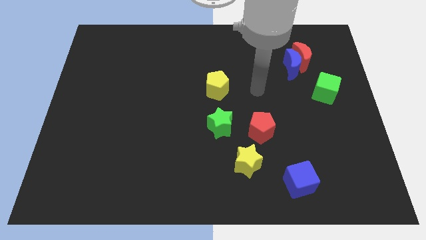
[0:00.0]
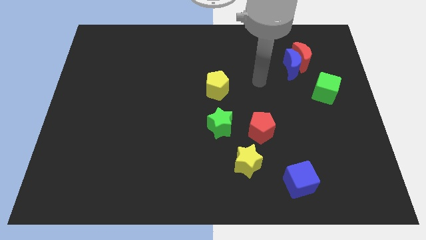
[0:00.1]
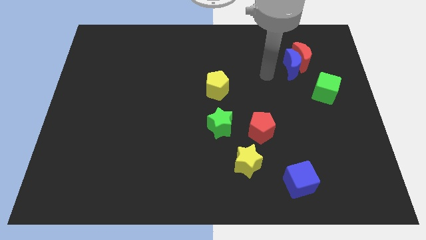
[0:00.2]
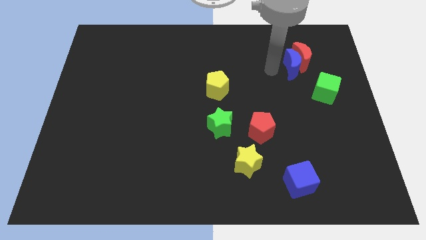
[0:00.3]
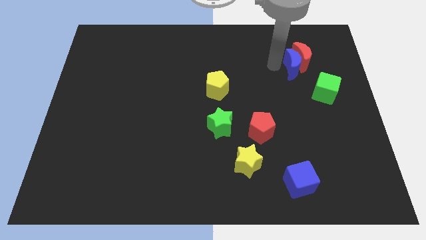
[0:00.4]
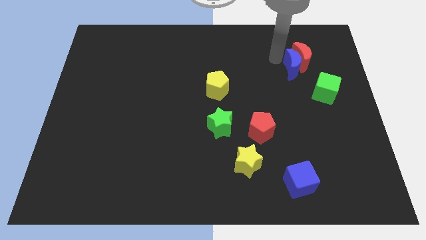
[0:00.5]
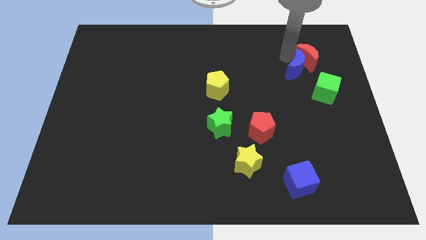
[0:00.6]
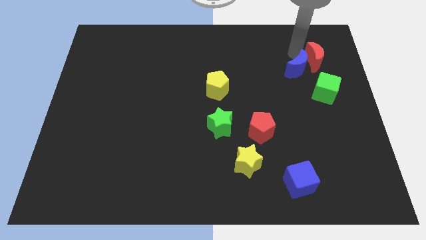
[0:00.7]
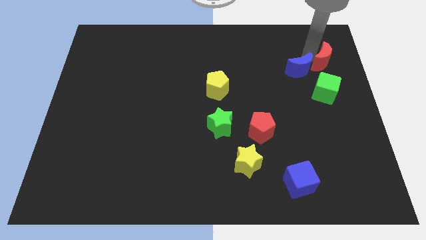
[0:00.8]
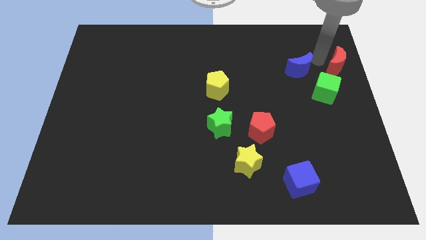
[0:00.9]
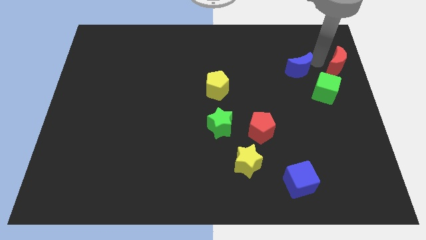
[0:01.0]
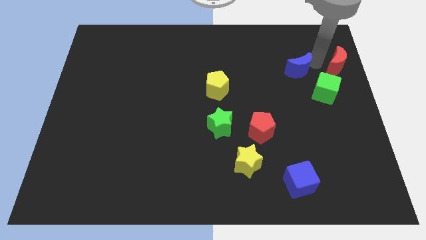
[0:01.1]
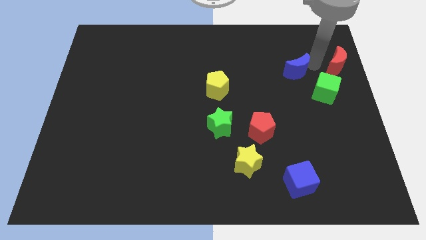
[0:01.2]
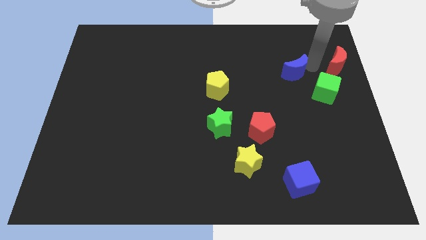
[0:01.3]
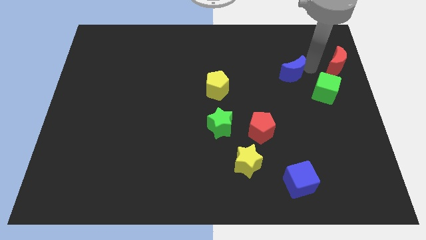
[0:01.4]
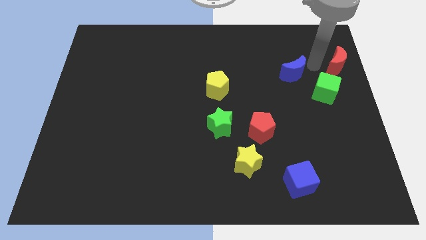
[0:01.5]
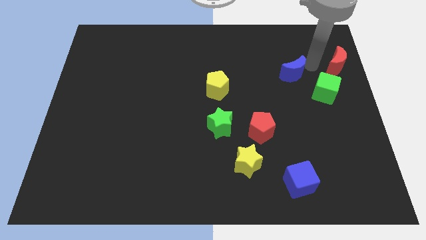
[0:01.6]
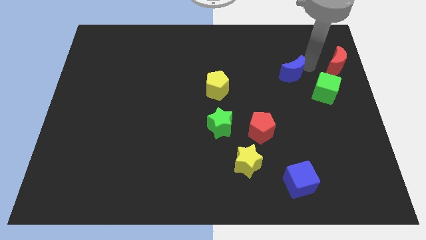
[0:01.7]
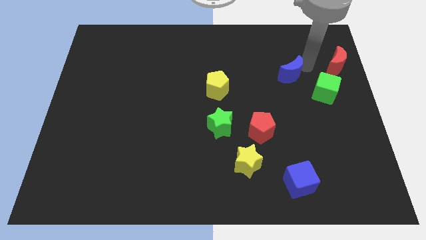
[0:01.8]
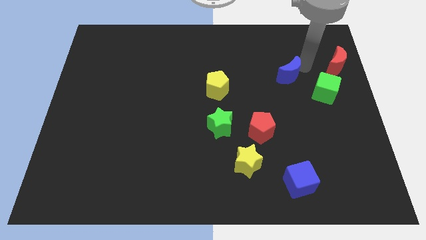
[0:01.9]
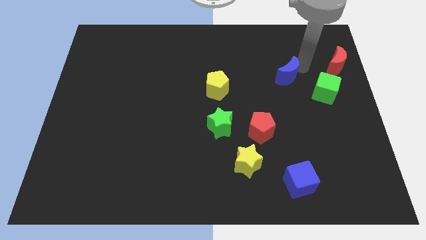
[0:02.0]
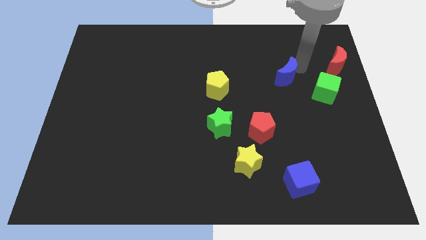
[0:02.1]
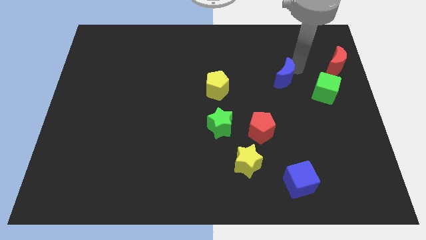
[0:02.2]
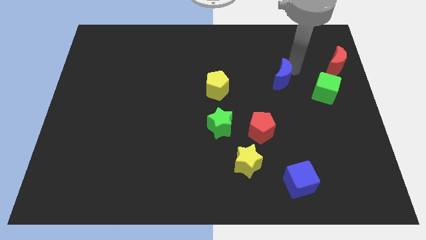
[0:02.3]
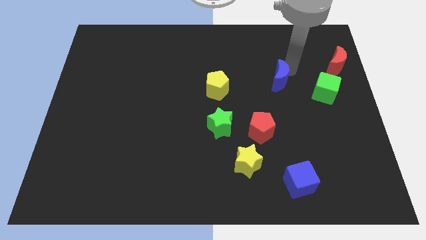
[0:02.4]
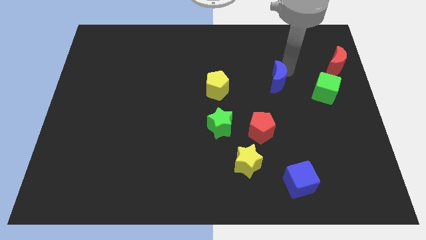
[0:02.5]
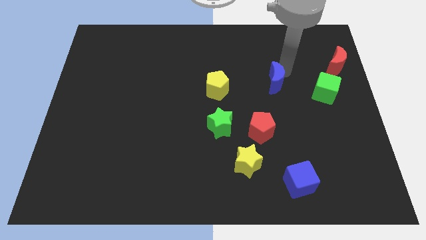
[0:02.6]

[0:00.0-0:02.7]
push the blue moon a little down and then left

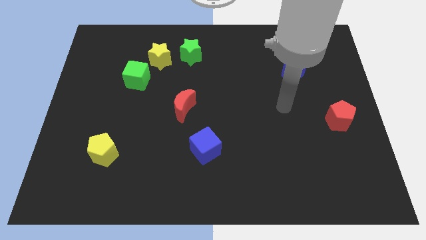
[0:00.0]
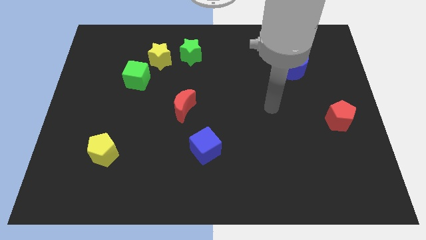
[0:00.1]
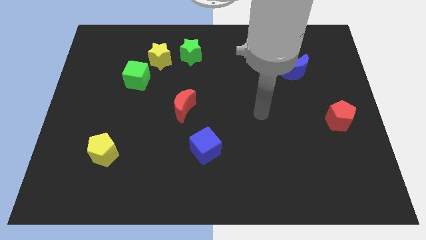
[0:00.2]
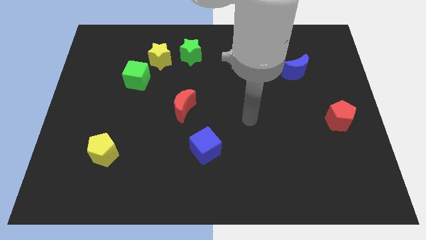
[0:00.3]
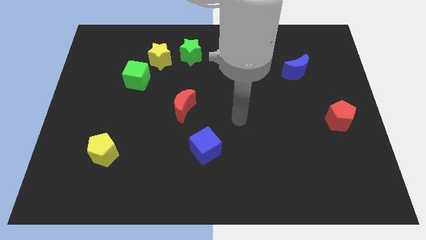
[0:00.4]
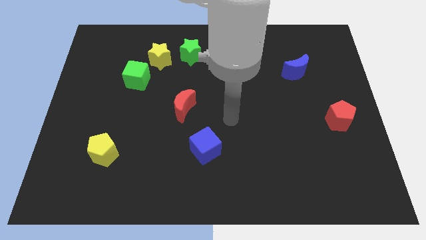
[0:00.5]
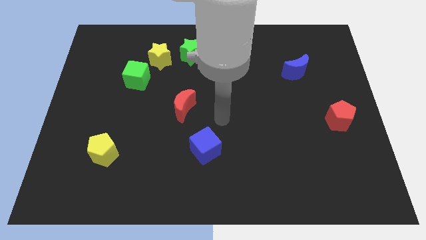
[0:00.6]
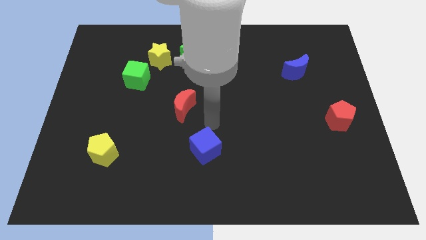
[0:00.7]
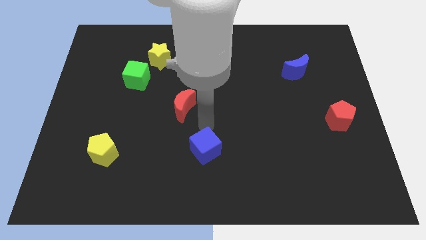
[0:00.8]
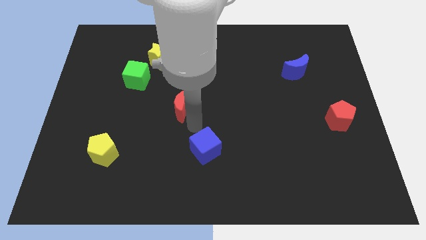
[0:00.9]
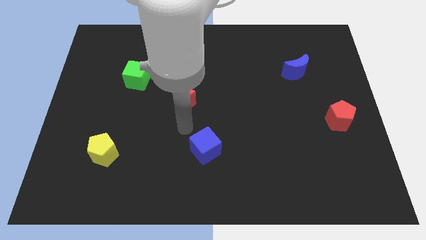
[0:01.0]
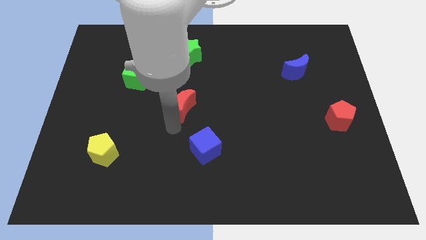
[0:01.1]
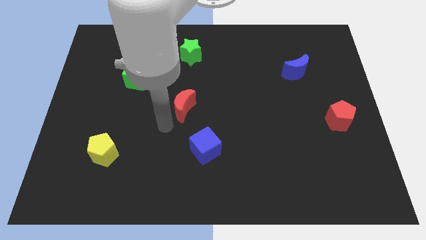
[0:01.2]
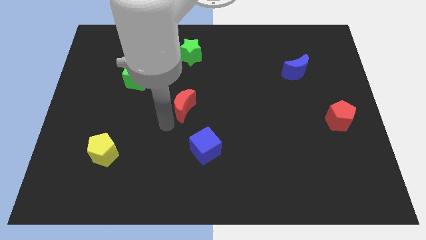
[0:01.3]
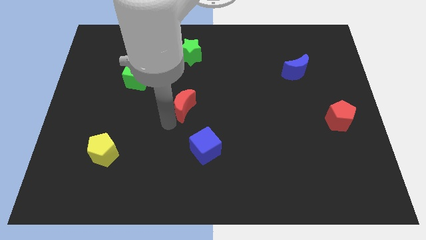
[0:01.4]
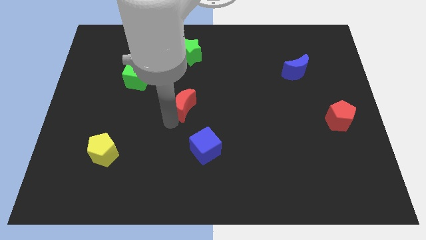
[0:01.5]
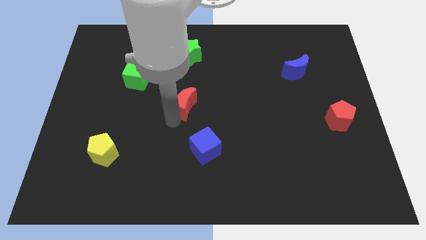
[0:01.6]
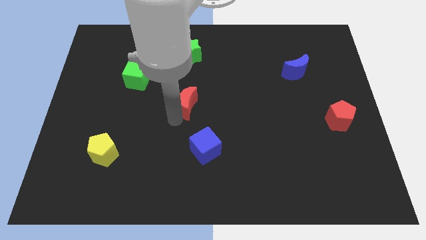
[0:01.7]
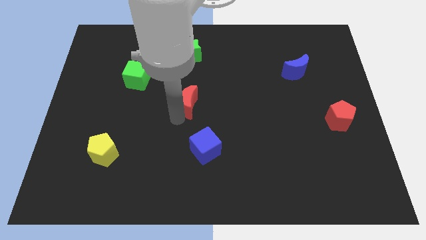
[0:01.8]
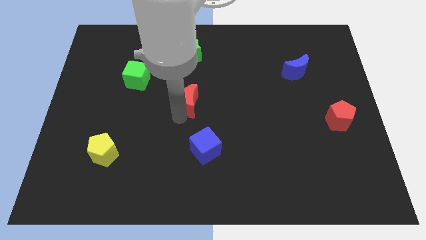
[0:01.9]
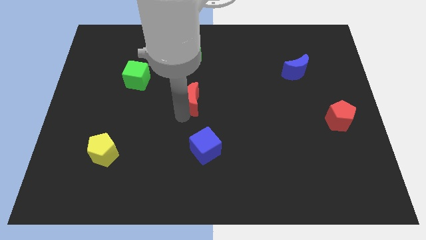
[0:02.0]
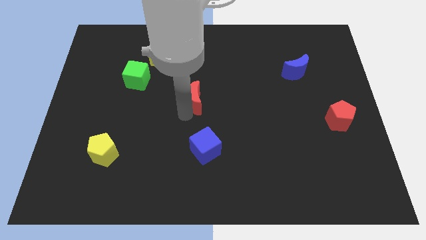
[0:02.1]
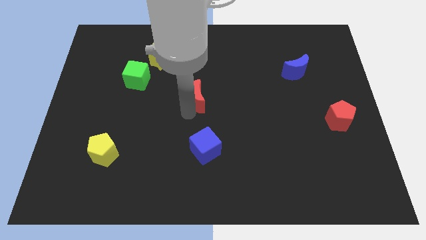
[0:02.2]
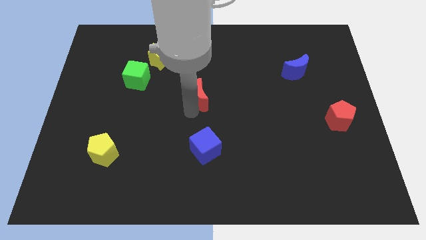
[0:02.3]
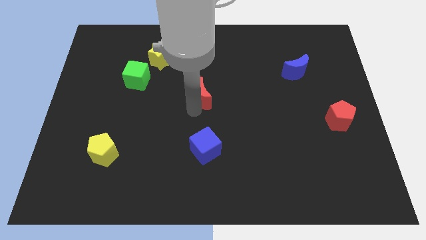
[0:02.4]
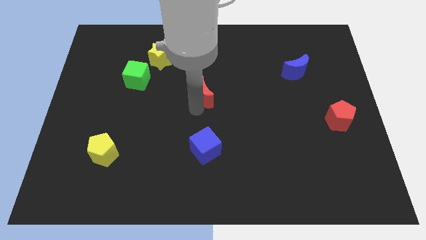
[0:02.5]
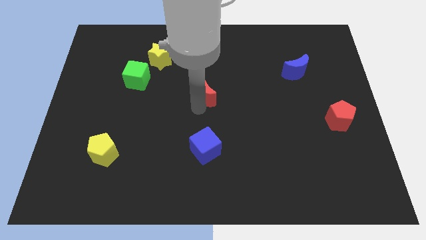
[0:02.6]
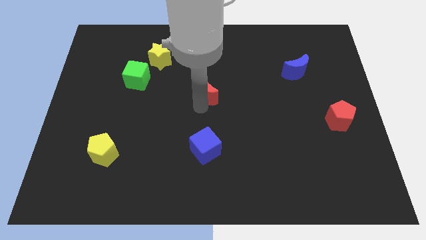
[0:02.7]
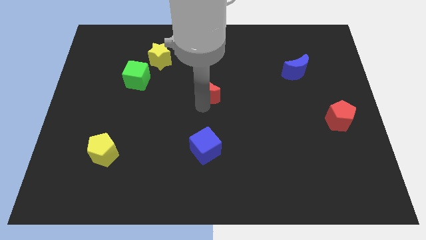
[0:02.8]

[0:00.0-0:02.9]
move the red moon a little upwards and then to the right

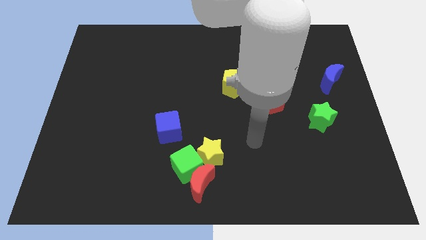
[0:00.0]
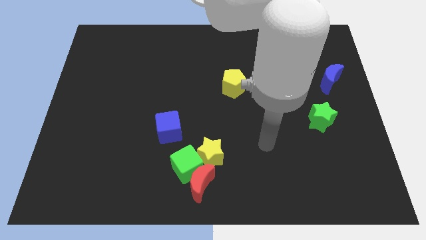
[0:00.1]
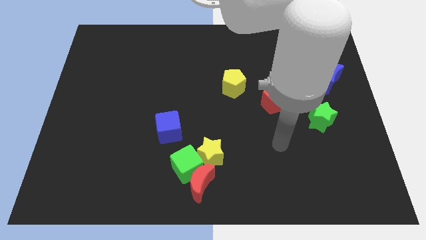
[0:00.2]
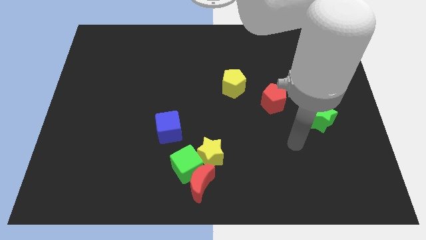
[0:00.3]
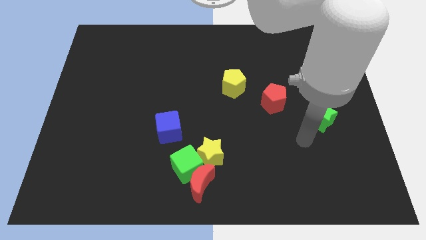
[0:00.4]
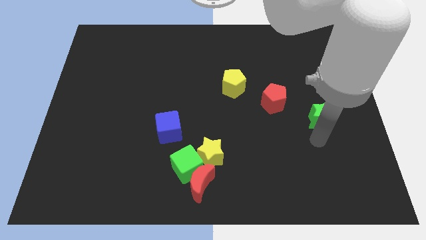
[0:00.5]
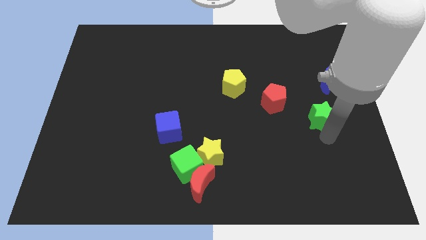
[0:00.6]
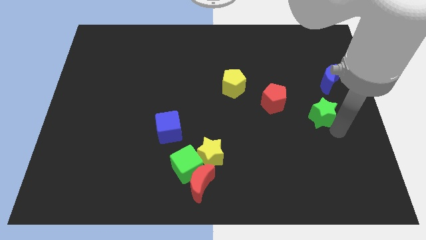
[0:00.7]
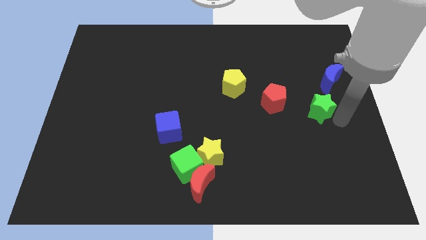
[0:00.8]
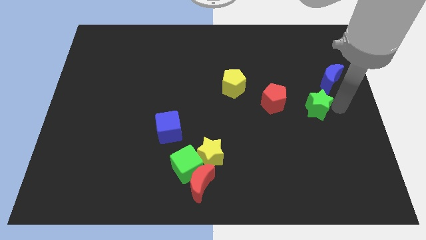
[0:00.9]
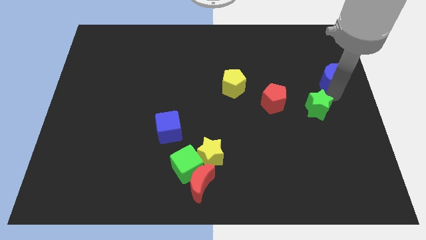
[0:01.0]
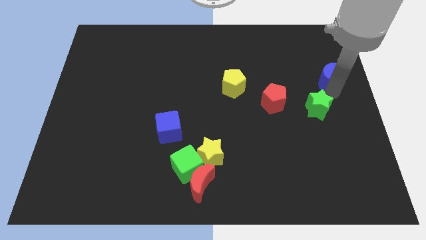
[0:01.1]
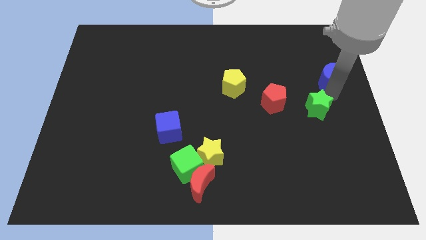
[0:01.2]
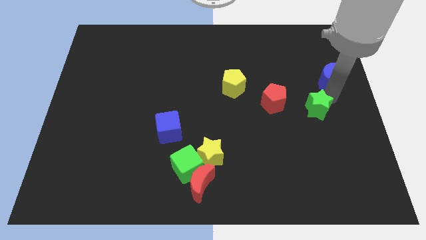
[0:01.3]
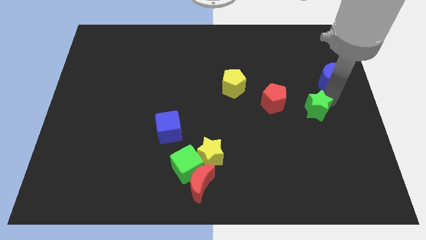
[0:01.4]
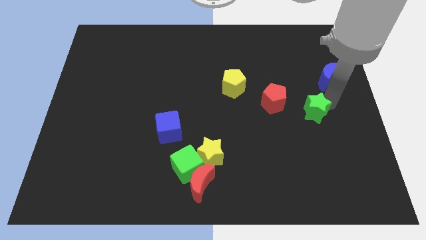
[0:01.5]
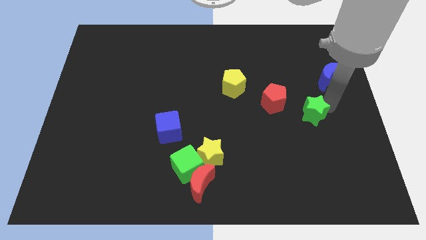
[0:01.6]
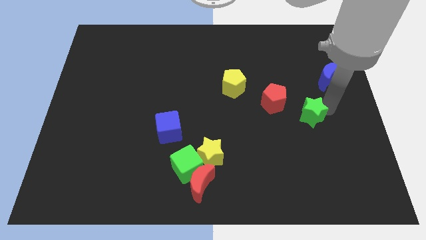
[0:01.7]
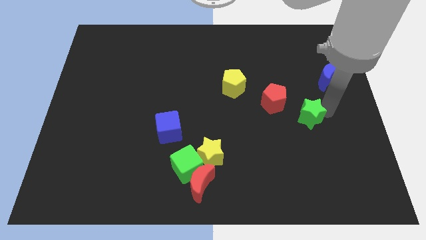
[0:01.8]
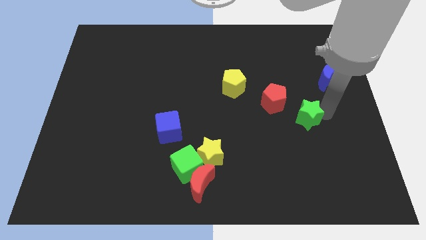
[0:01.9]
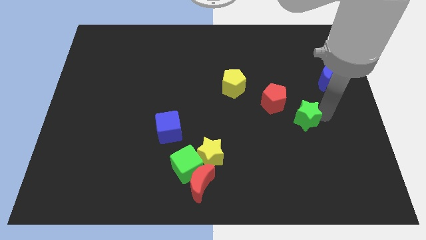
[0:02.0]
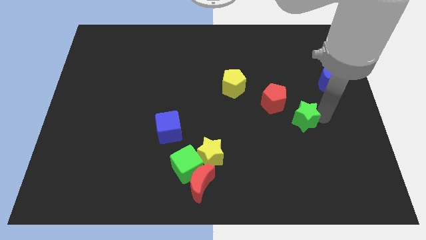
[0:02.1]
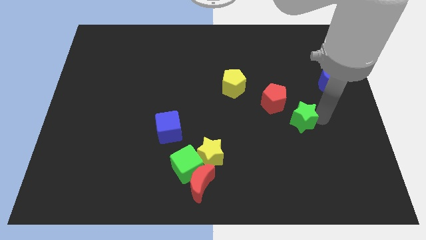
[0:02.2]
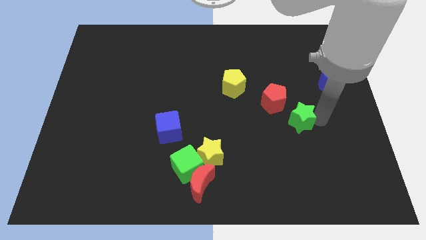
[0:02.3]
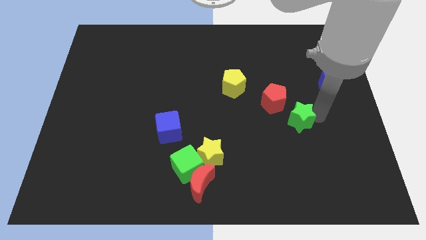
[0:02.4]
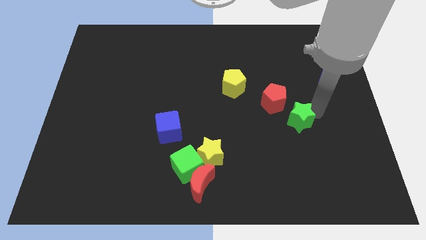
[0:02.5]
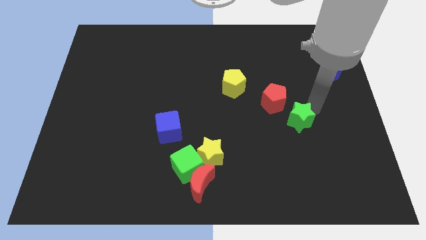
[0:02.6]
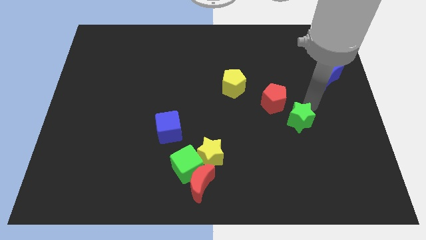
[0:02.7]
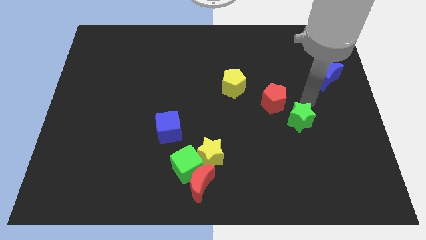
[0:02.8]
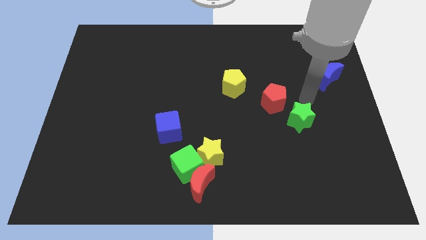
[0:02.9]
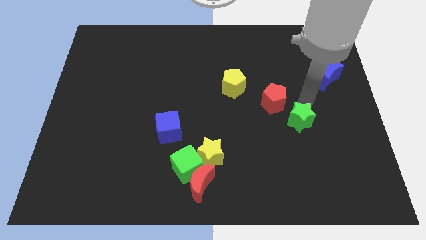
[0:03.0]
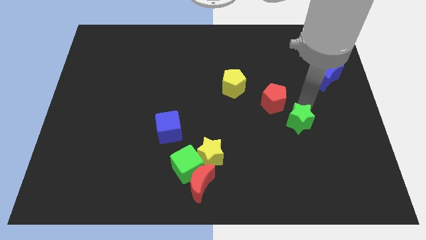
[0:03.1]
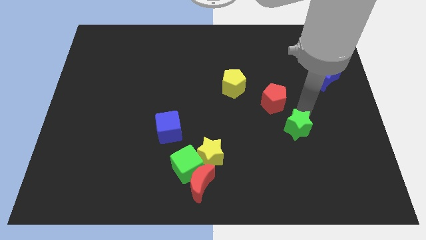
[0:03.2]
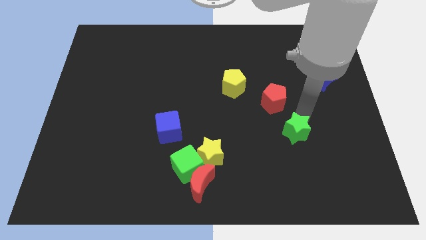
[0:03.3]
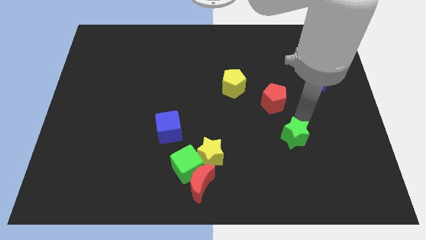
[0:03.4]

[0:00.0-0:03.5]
push the green star downwards and to the left a little
